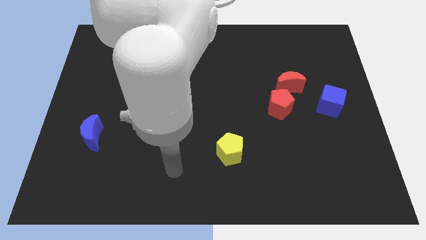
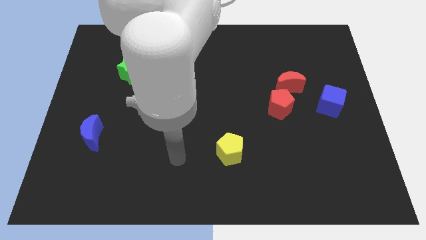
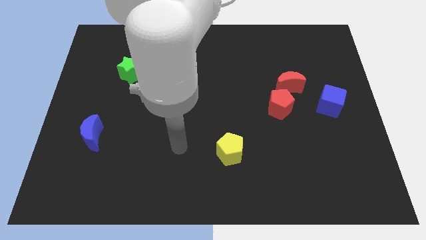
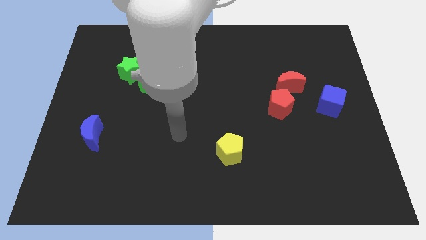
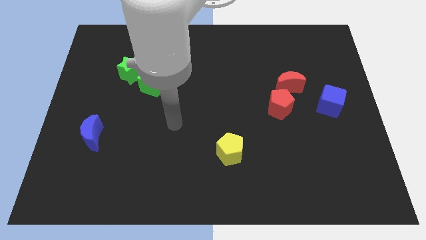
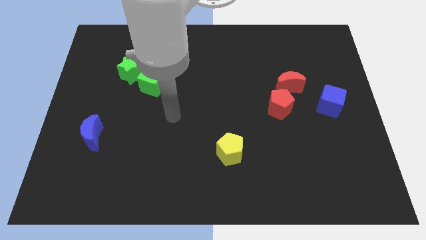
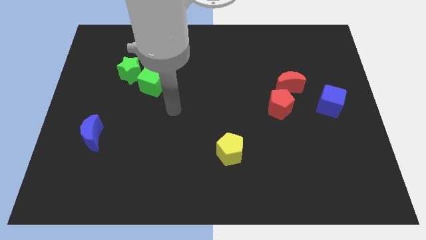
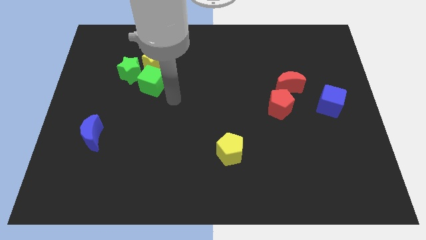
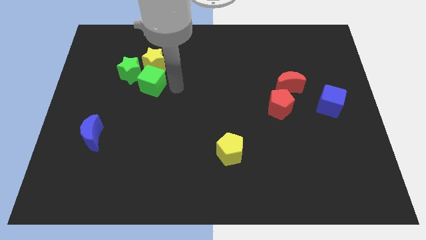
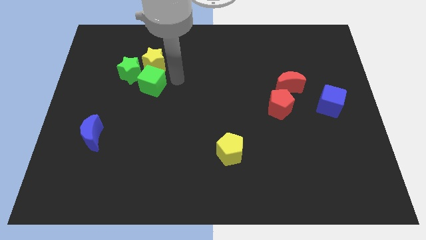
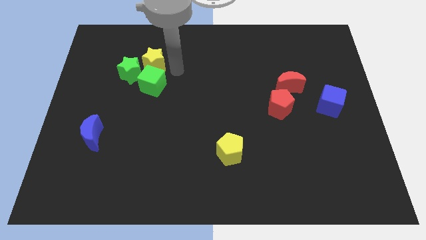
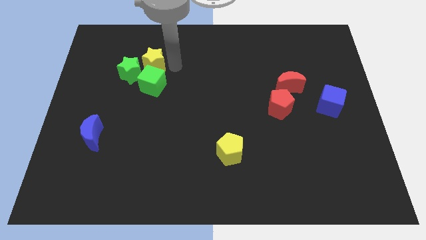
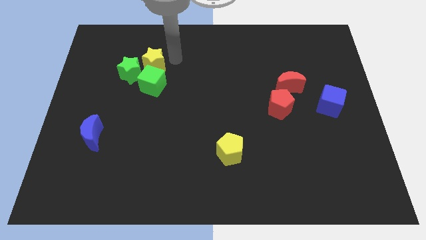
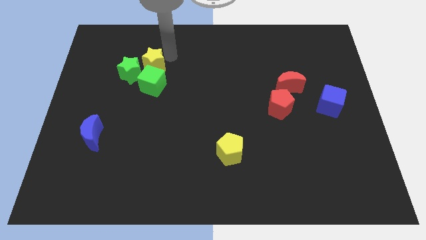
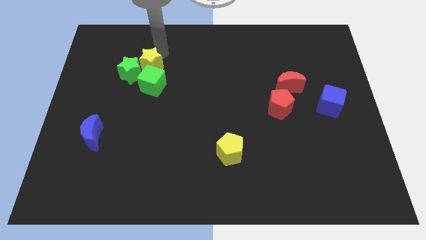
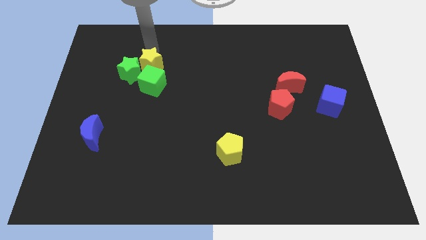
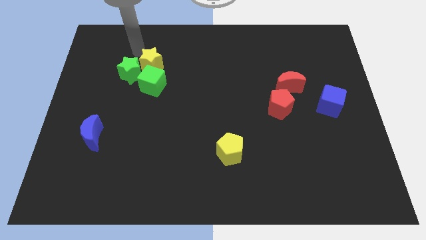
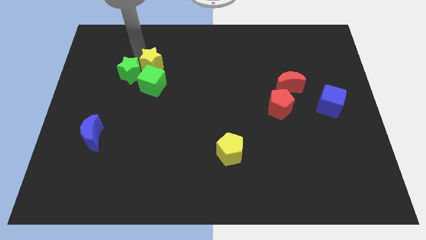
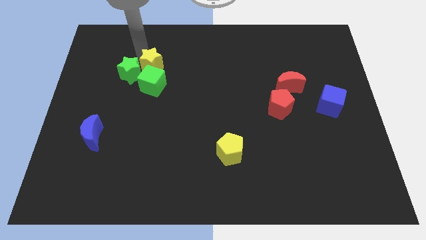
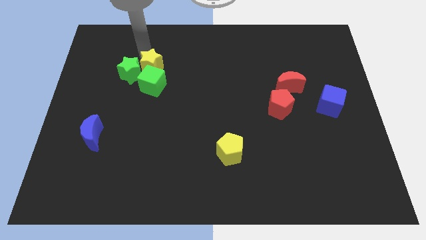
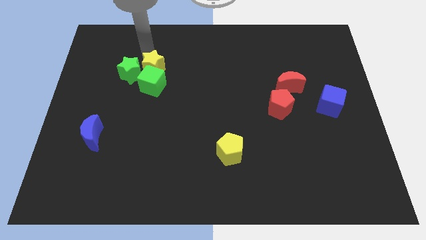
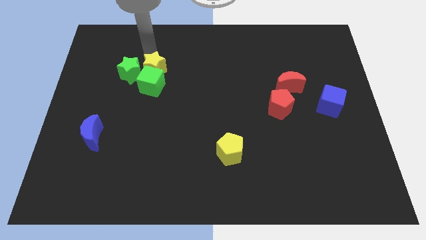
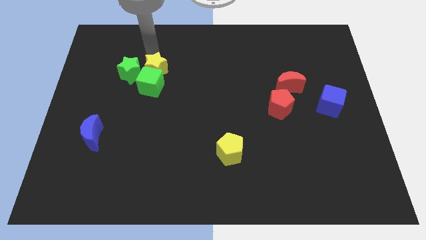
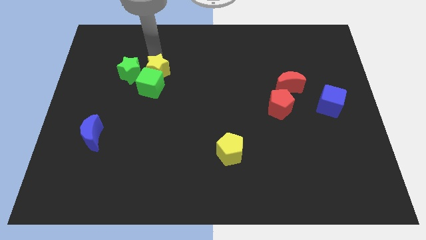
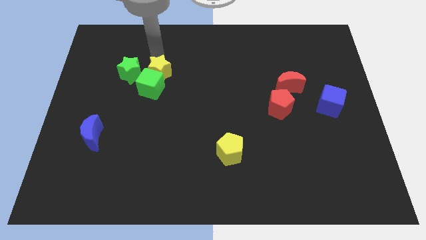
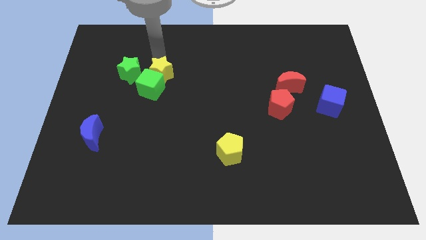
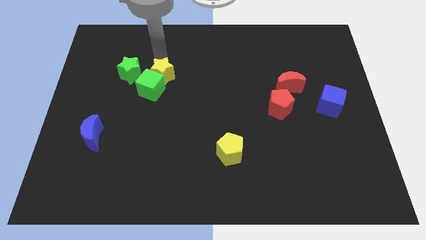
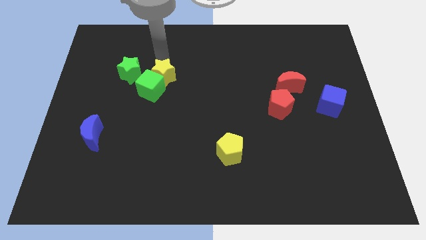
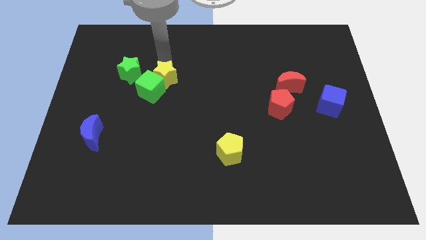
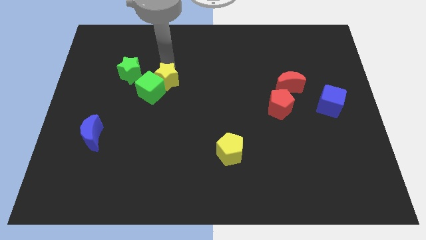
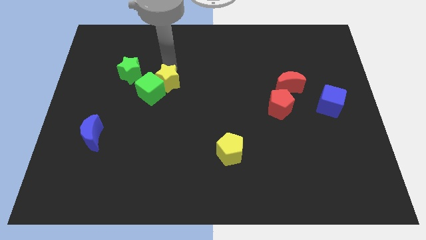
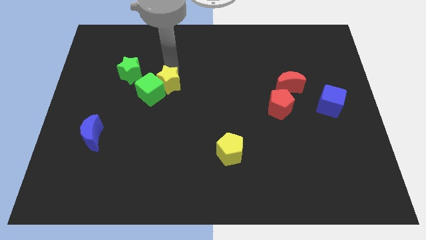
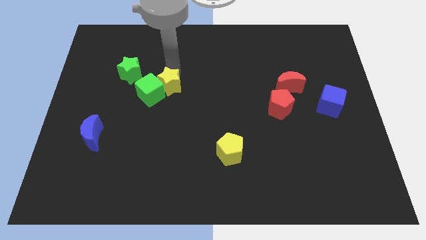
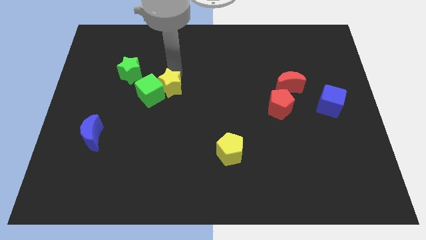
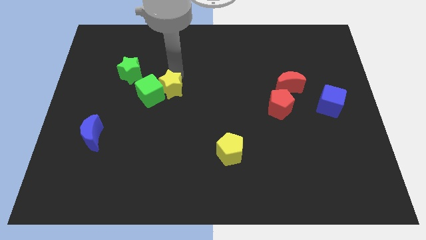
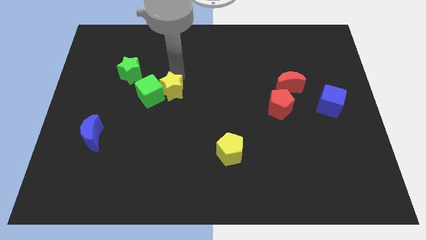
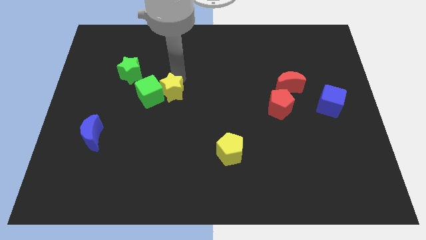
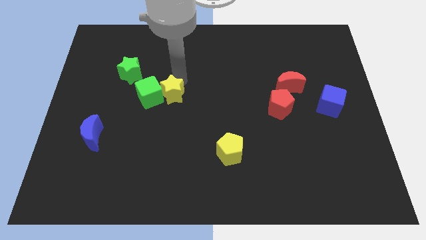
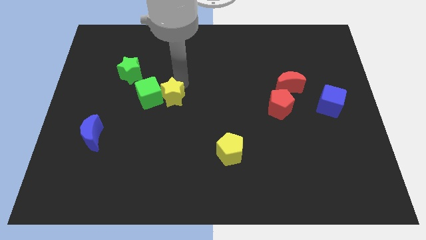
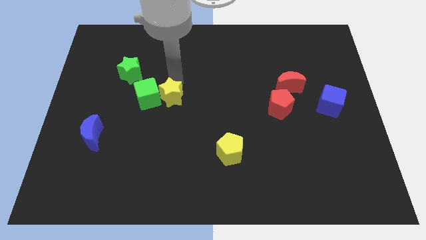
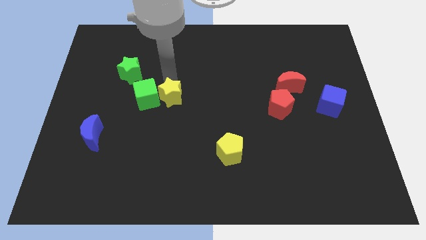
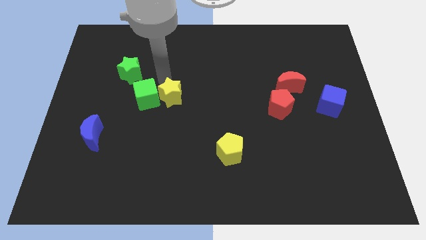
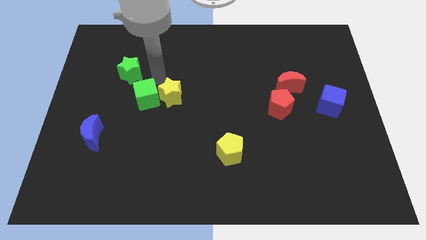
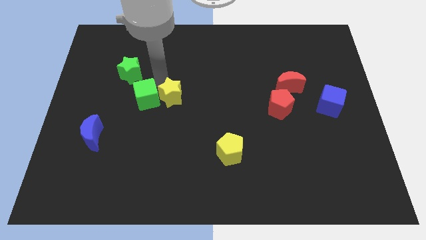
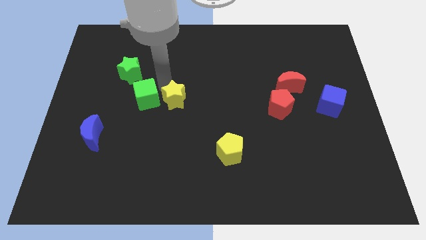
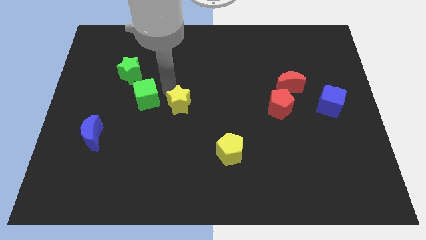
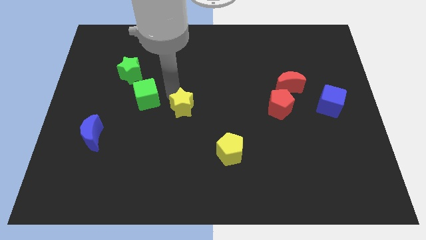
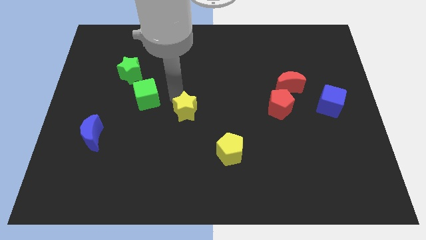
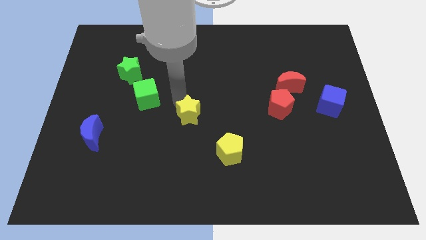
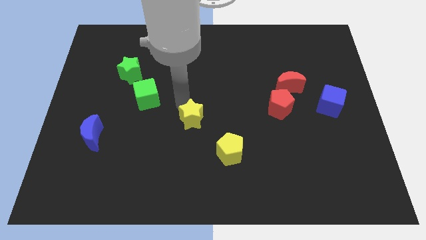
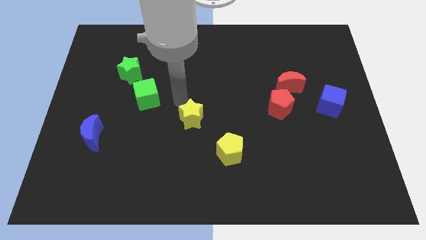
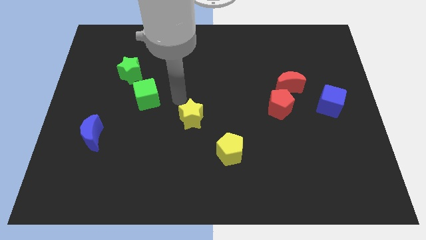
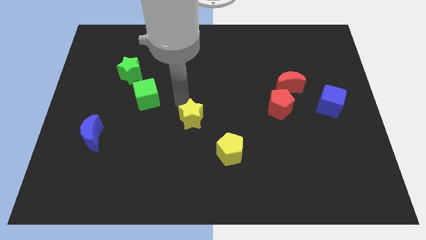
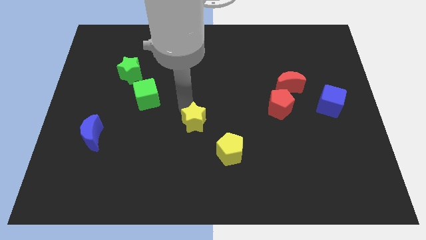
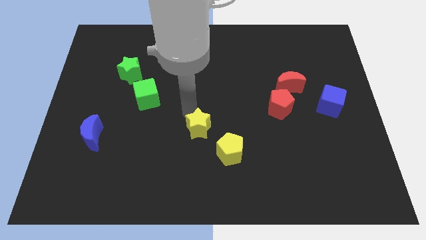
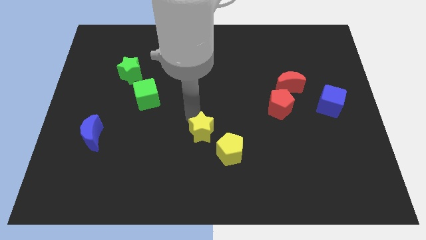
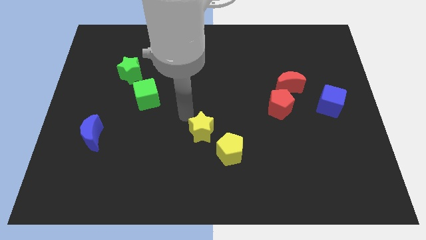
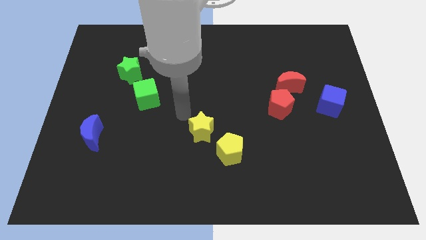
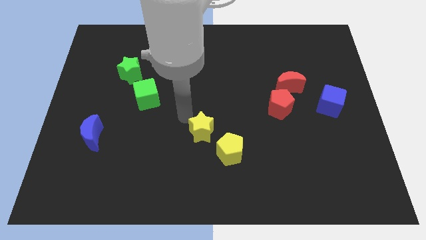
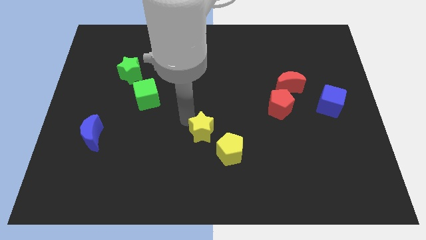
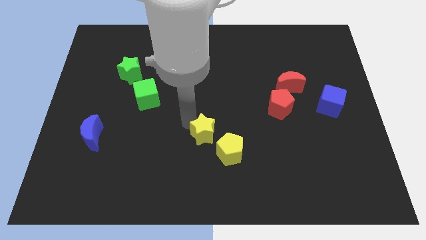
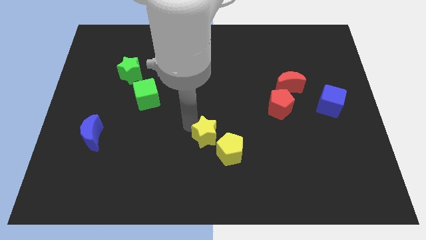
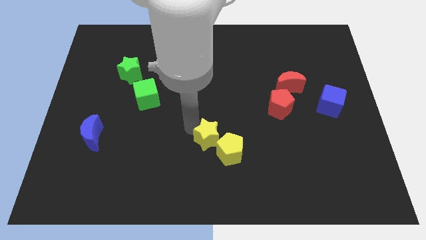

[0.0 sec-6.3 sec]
move the yellow star close to the yellow pentagon

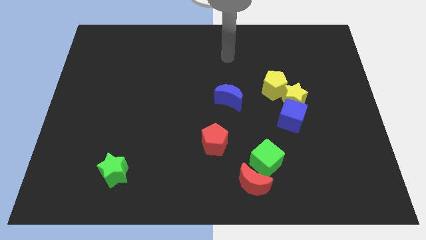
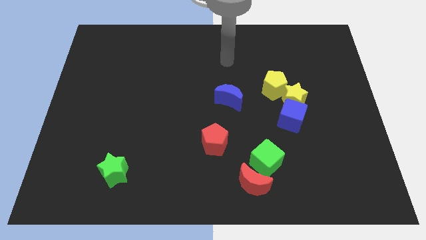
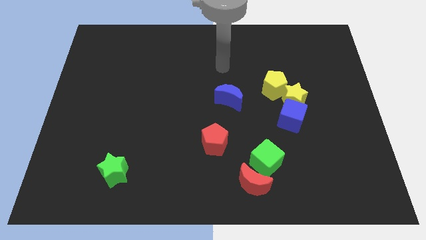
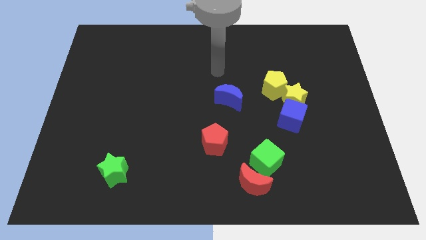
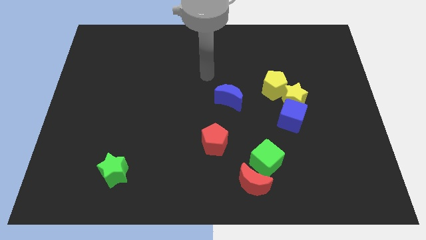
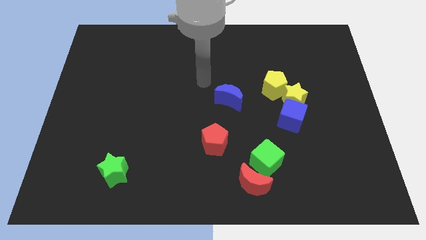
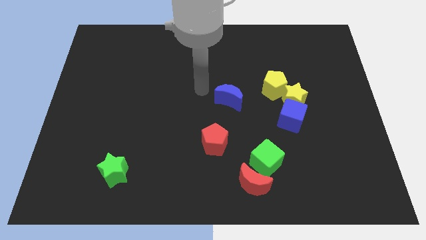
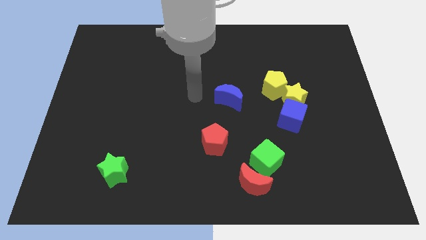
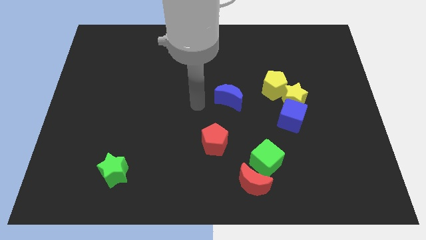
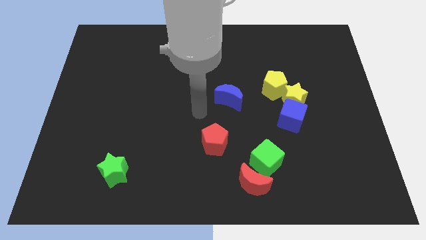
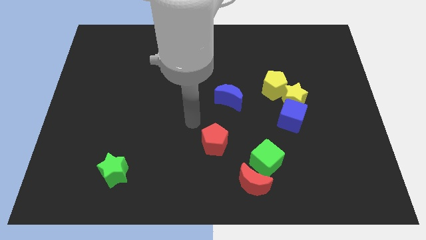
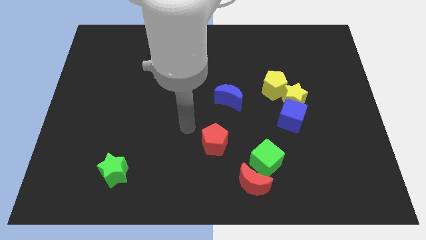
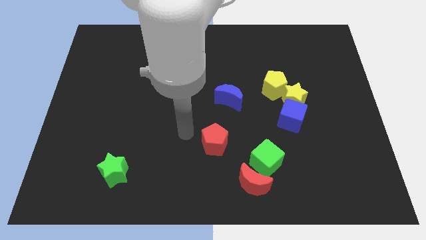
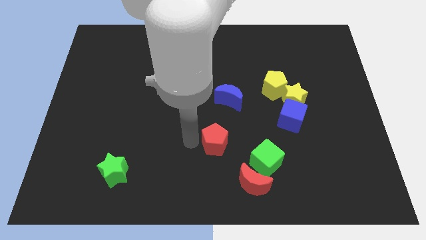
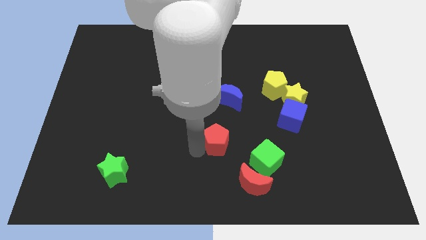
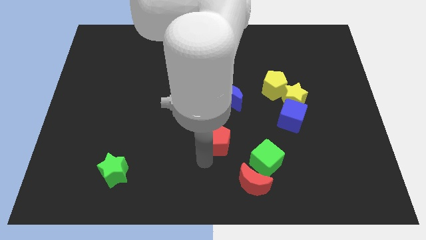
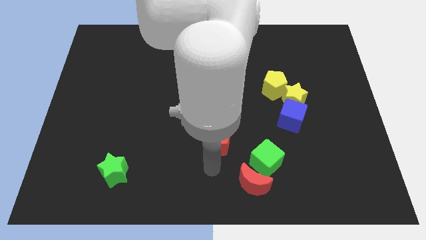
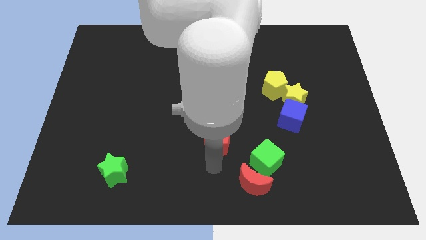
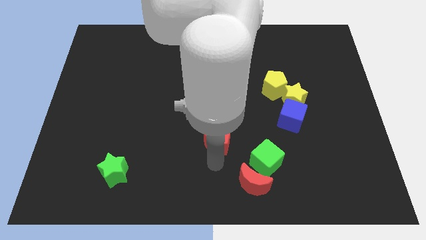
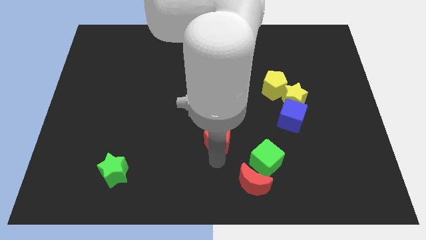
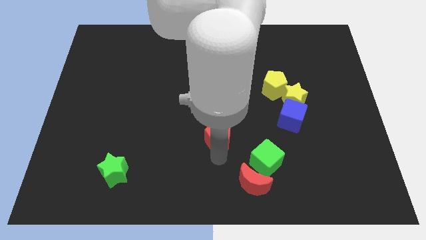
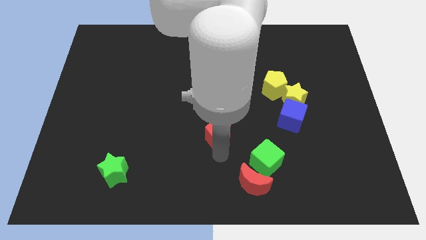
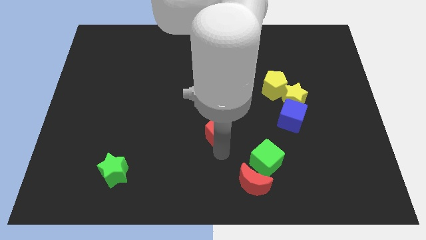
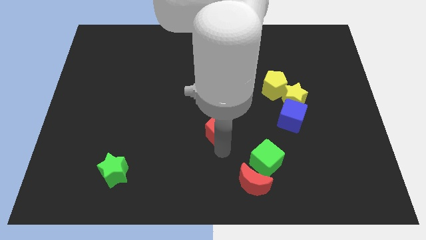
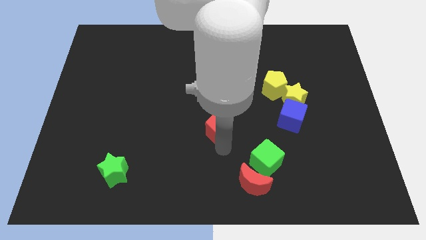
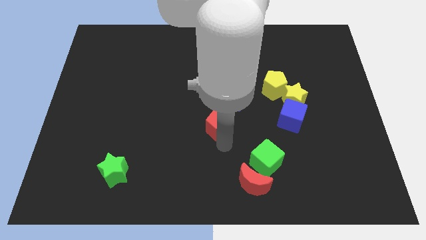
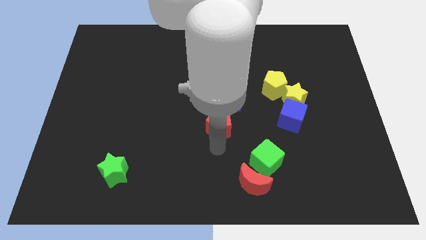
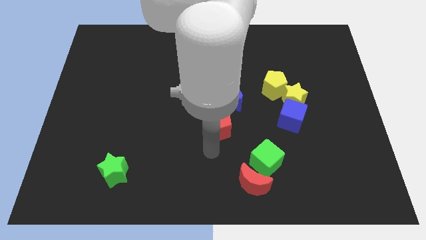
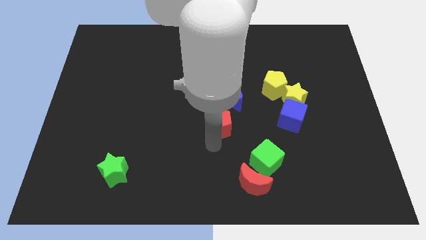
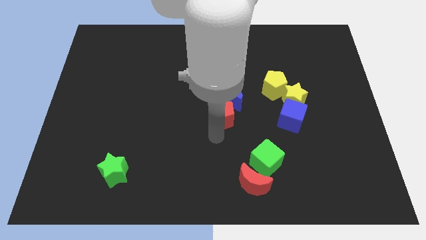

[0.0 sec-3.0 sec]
push the red pentagon close to the blue moon
